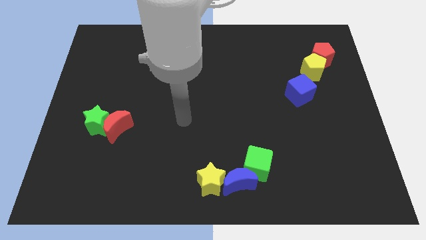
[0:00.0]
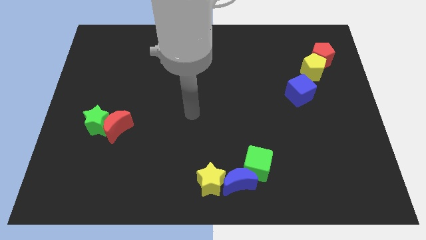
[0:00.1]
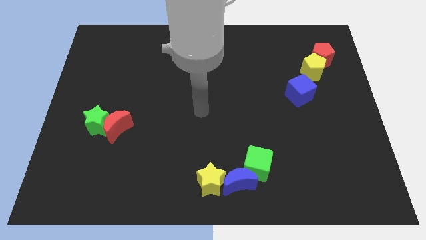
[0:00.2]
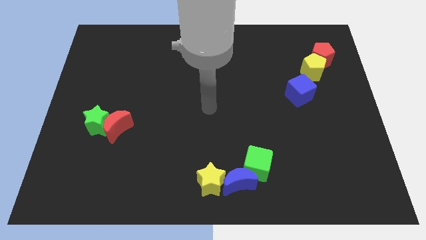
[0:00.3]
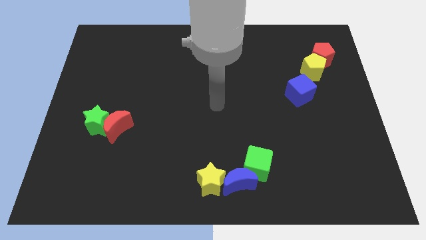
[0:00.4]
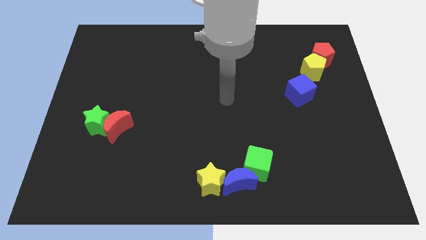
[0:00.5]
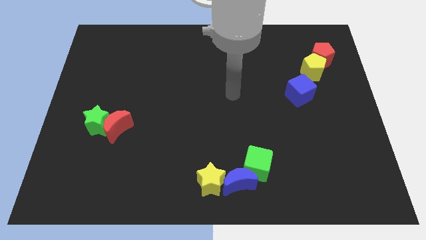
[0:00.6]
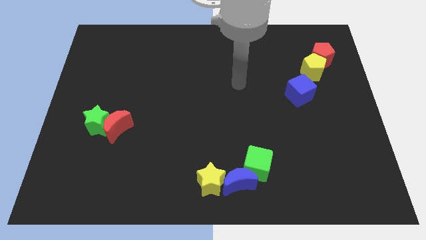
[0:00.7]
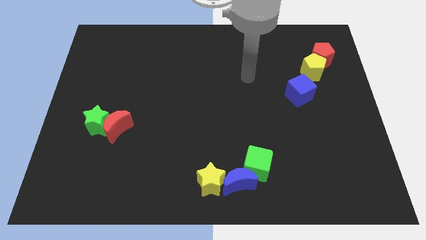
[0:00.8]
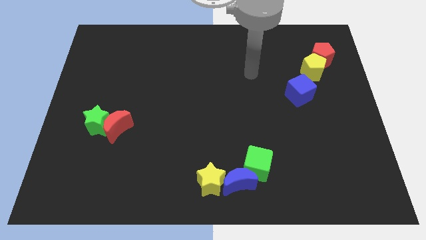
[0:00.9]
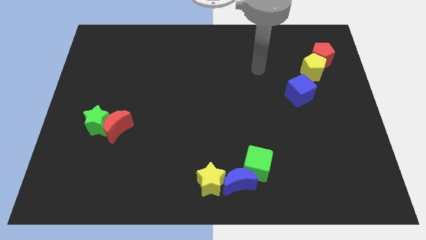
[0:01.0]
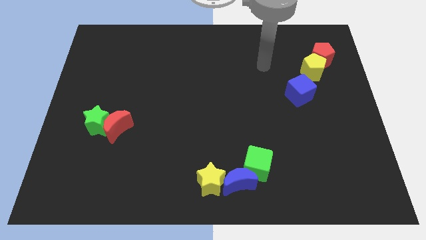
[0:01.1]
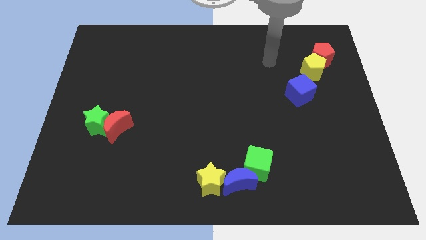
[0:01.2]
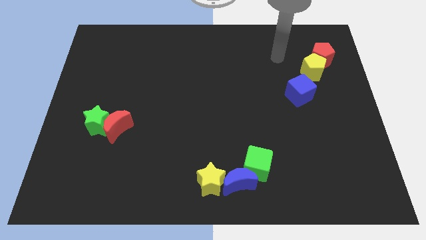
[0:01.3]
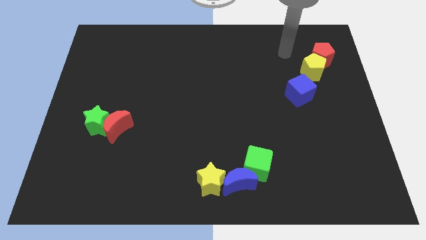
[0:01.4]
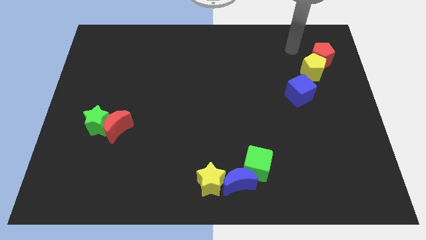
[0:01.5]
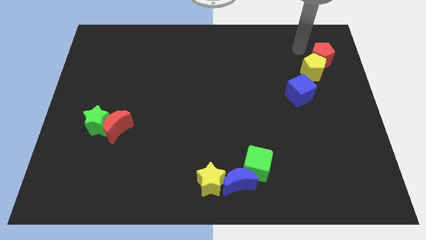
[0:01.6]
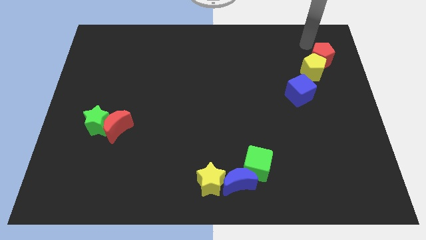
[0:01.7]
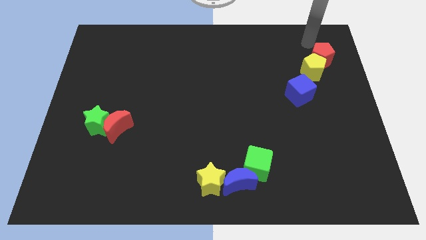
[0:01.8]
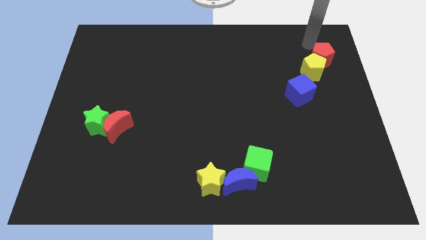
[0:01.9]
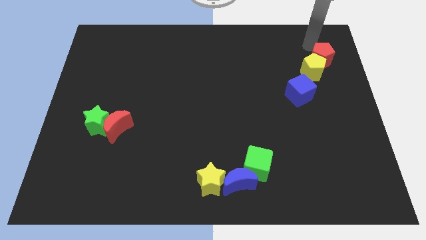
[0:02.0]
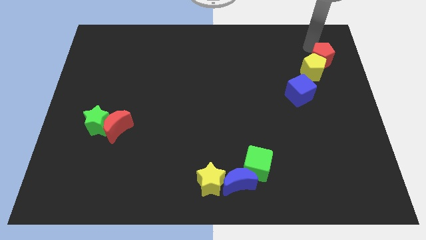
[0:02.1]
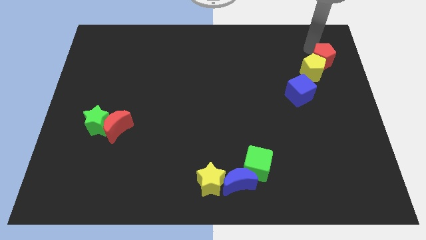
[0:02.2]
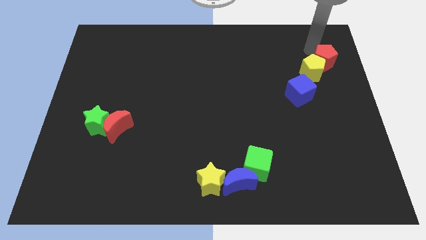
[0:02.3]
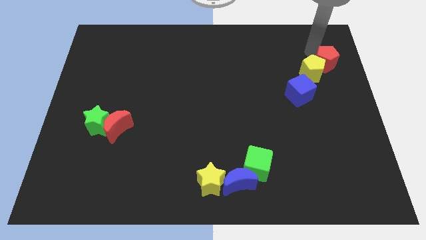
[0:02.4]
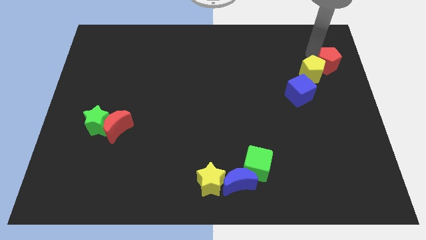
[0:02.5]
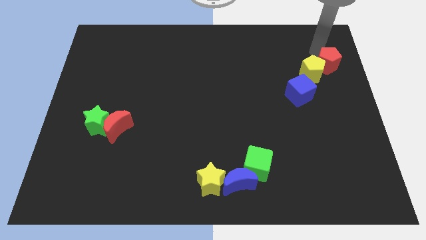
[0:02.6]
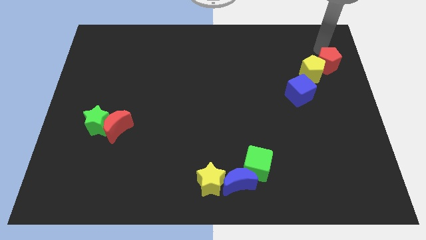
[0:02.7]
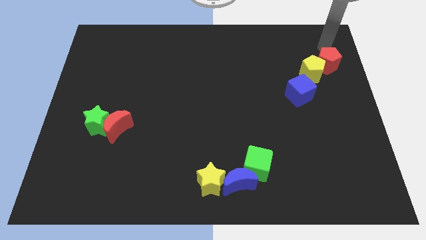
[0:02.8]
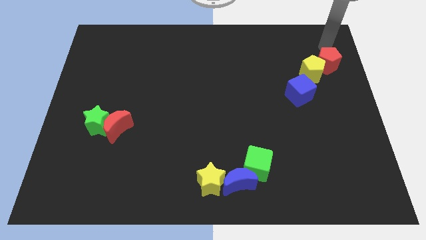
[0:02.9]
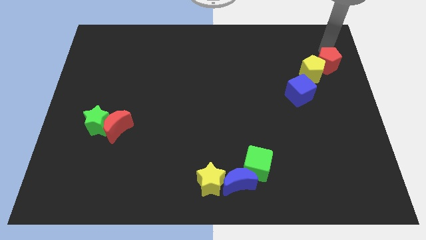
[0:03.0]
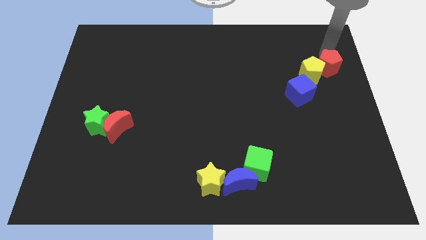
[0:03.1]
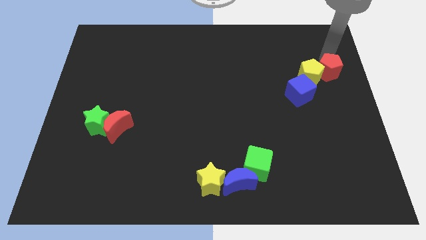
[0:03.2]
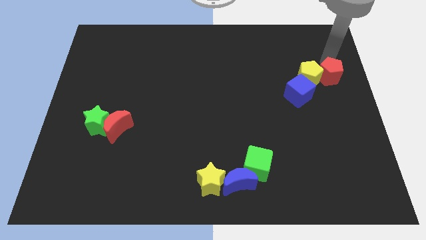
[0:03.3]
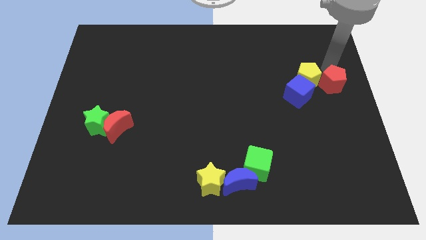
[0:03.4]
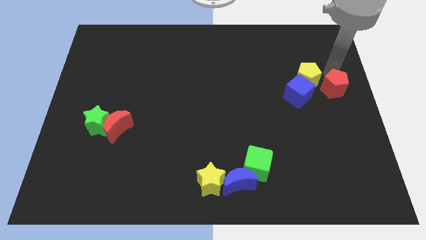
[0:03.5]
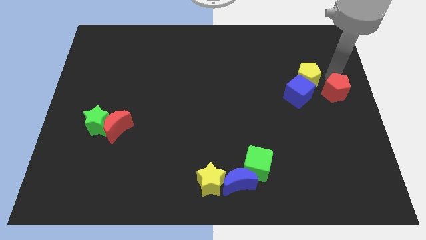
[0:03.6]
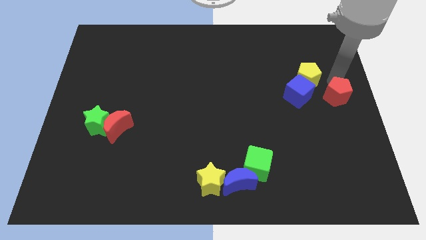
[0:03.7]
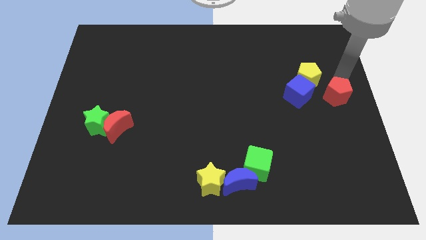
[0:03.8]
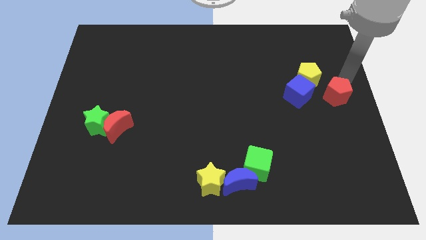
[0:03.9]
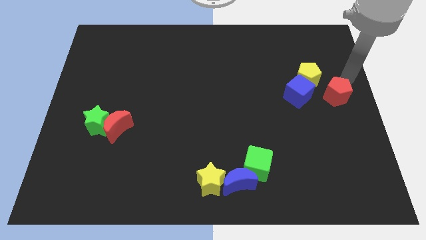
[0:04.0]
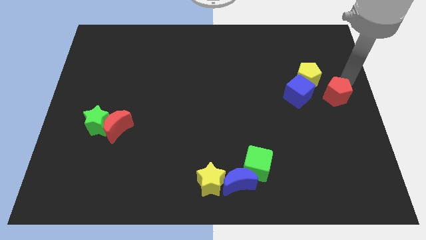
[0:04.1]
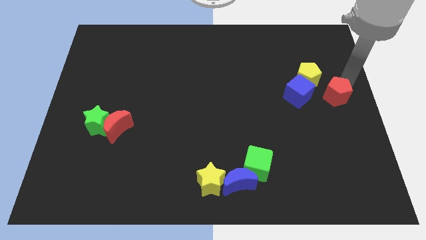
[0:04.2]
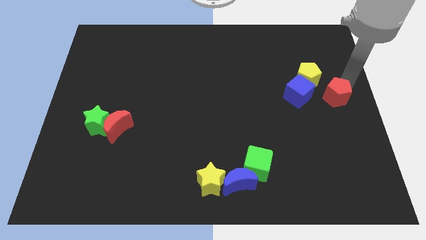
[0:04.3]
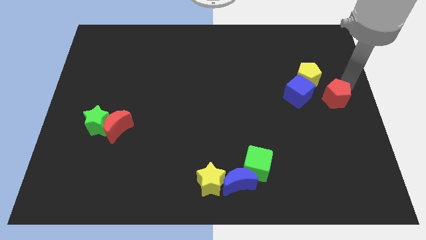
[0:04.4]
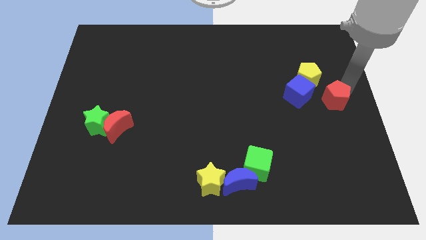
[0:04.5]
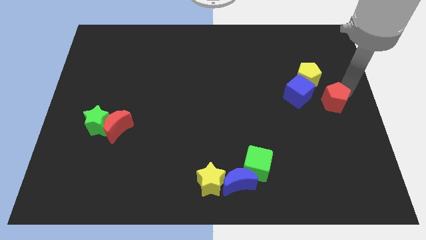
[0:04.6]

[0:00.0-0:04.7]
put the red pentagon to the bottom right of the blue cube

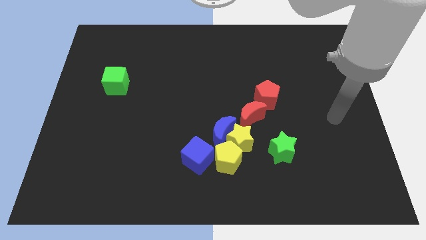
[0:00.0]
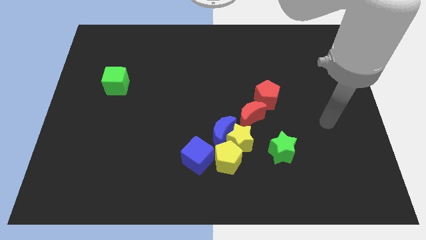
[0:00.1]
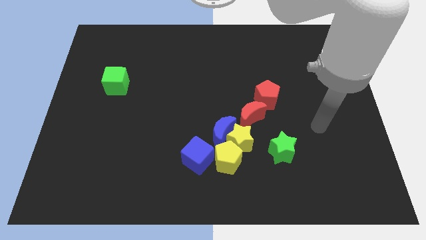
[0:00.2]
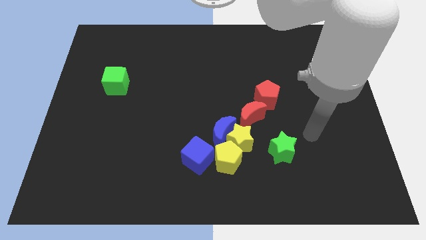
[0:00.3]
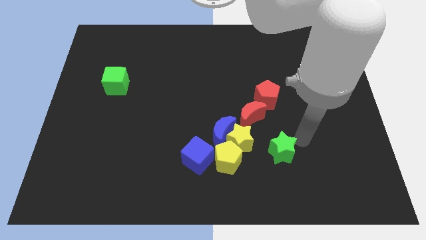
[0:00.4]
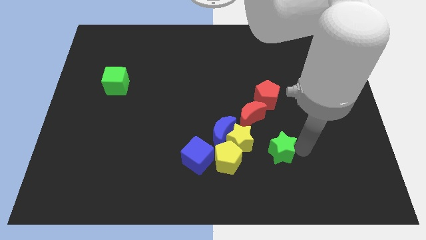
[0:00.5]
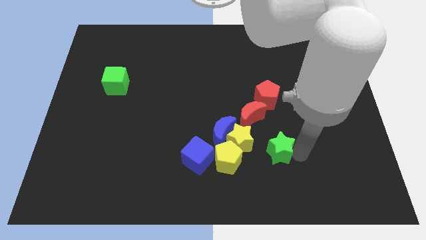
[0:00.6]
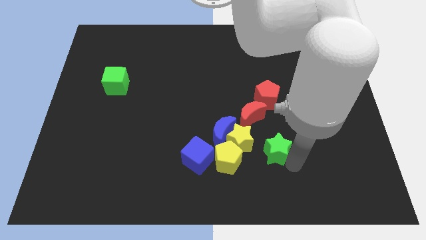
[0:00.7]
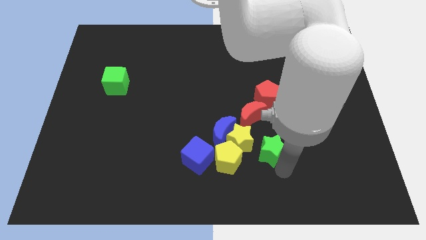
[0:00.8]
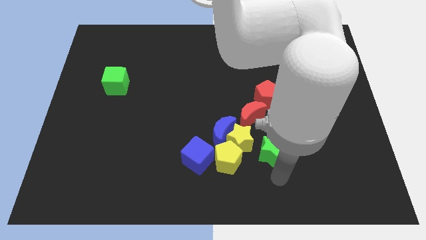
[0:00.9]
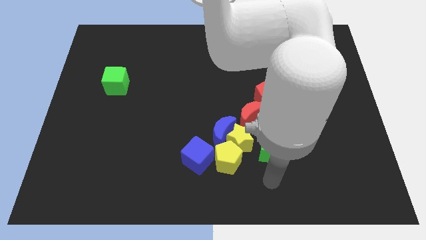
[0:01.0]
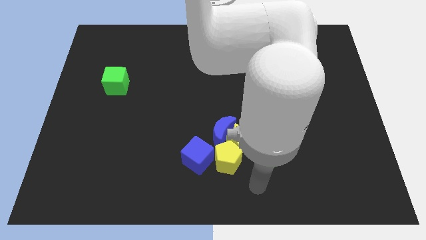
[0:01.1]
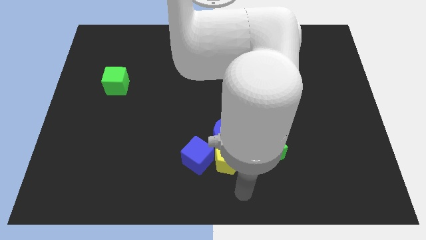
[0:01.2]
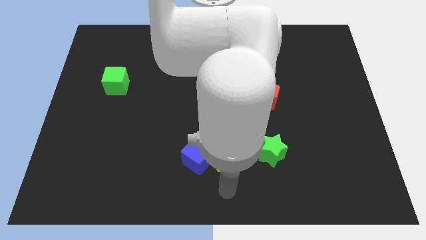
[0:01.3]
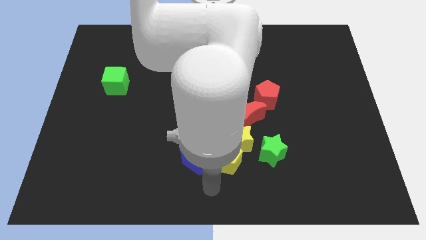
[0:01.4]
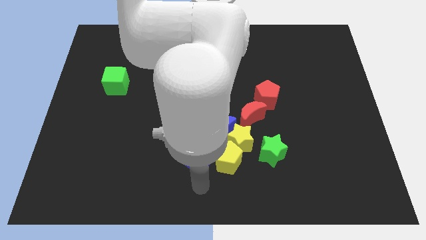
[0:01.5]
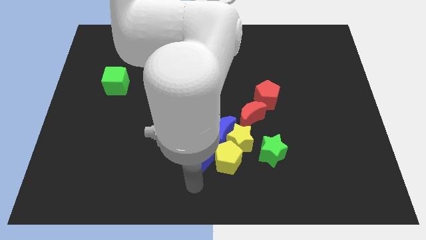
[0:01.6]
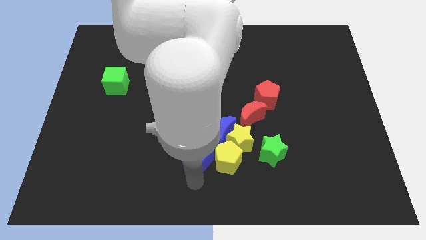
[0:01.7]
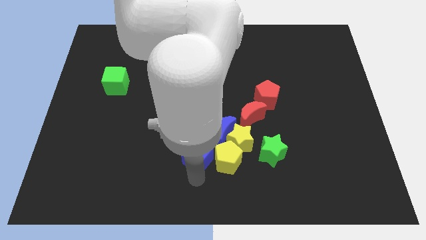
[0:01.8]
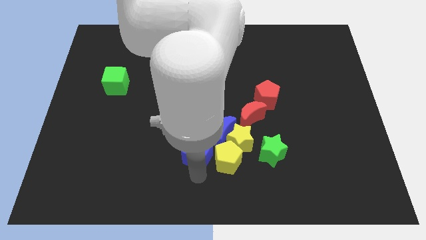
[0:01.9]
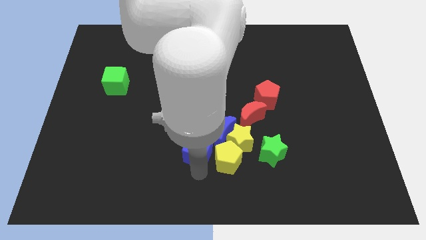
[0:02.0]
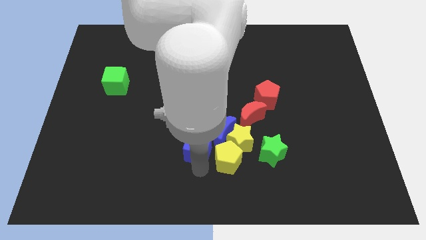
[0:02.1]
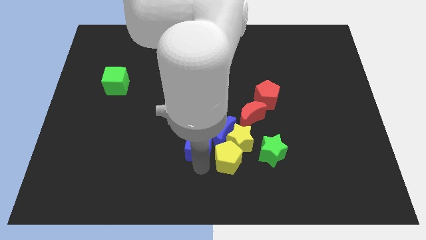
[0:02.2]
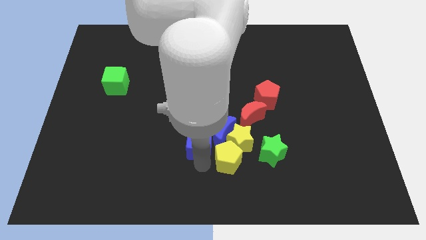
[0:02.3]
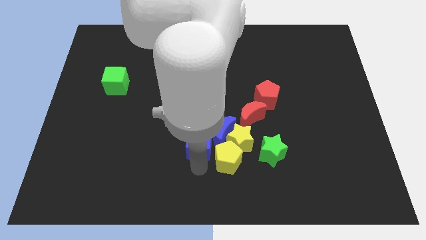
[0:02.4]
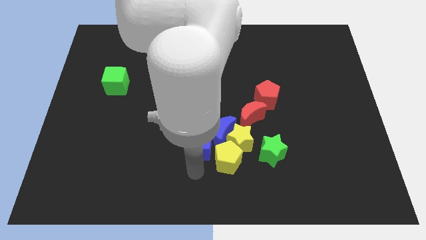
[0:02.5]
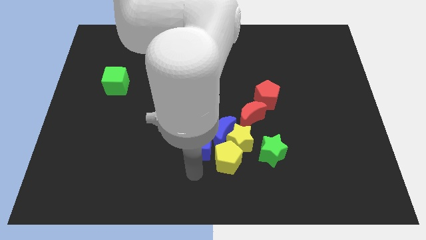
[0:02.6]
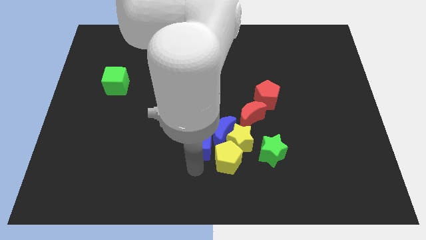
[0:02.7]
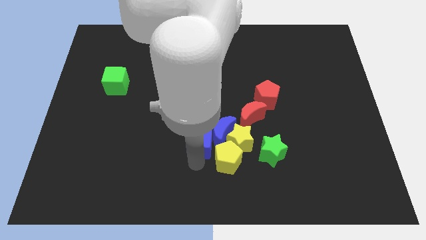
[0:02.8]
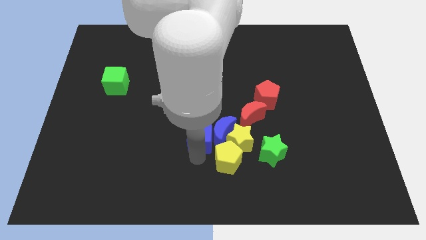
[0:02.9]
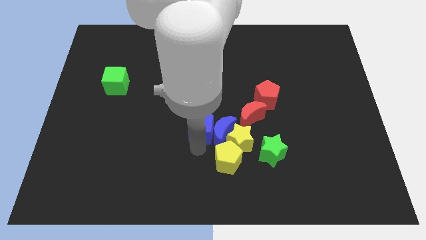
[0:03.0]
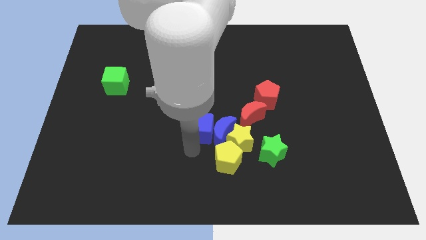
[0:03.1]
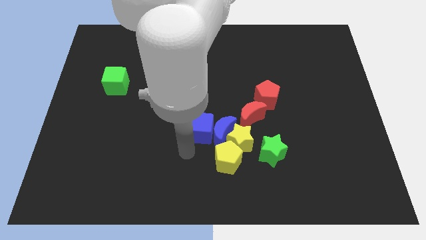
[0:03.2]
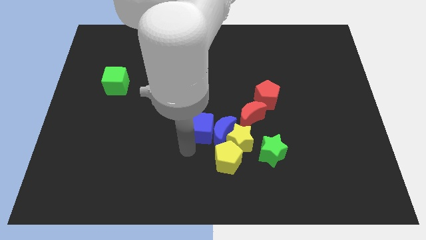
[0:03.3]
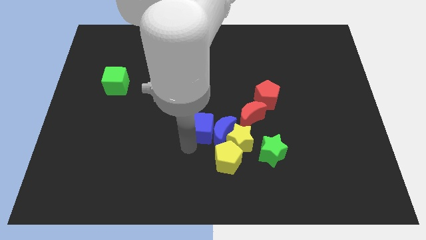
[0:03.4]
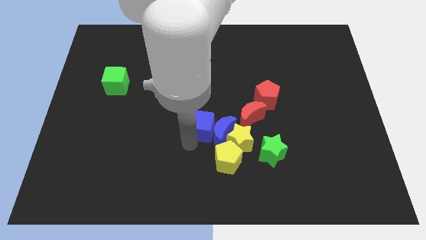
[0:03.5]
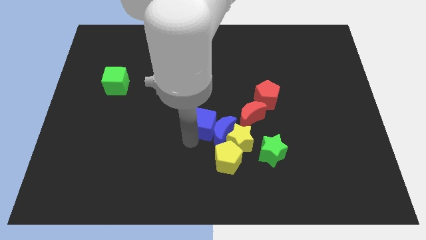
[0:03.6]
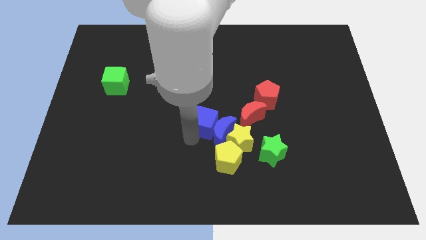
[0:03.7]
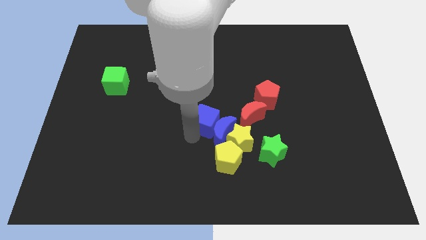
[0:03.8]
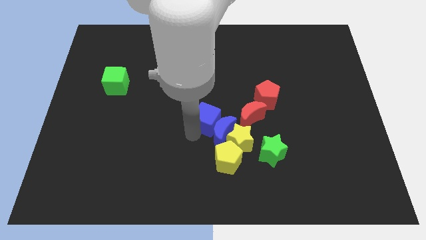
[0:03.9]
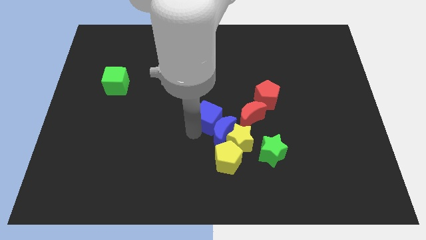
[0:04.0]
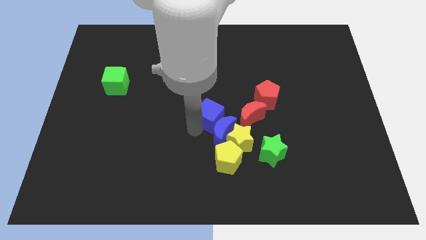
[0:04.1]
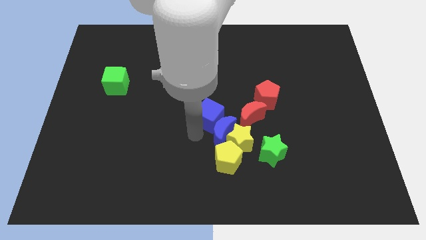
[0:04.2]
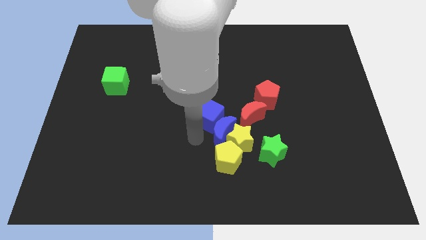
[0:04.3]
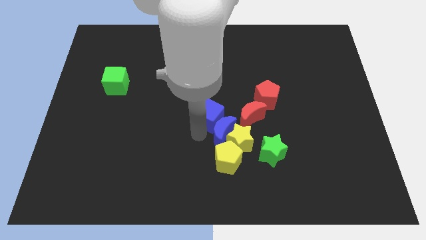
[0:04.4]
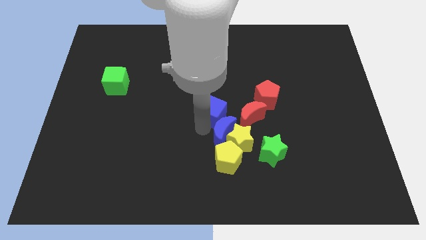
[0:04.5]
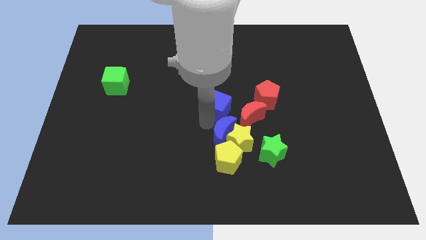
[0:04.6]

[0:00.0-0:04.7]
move the blue cube left of the red pentagon
